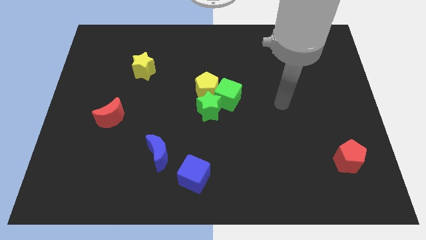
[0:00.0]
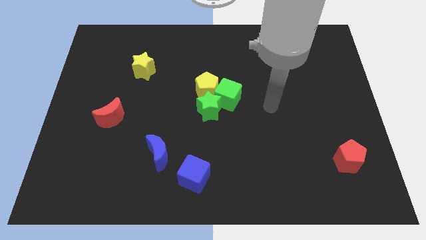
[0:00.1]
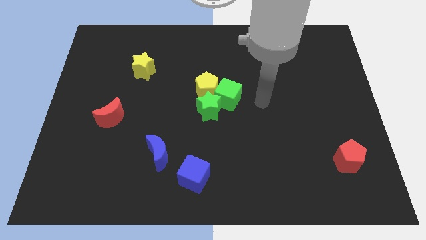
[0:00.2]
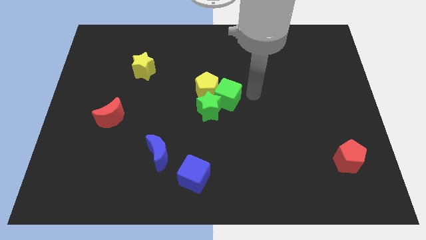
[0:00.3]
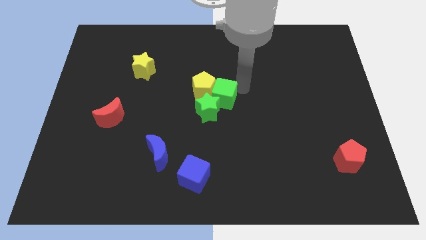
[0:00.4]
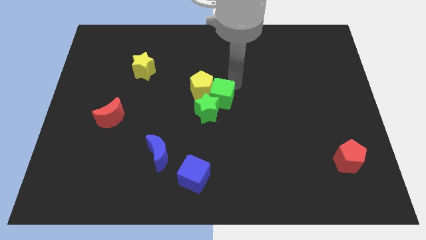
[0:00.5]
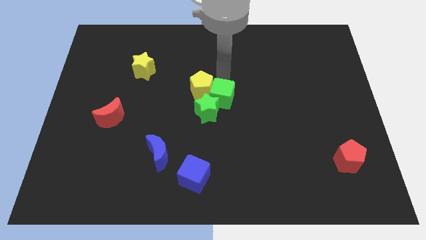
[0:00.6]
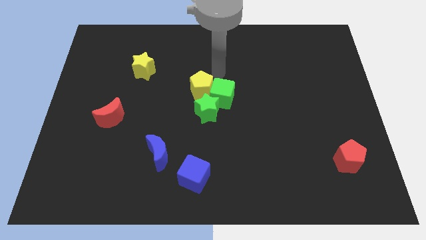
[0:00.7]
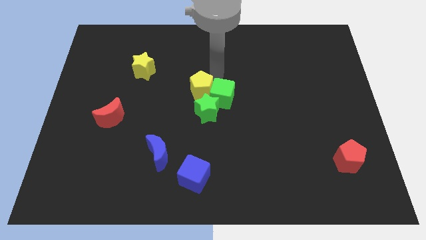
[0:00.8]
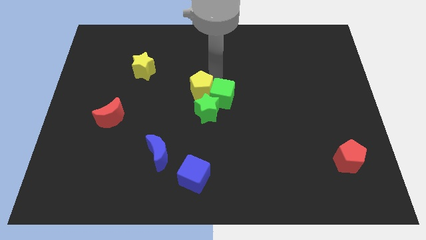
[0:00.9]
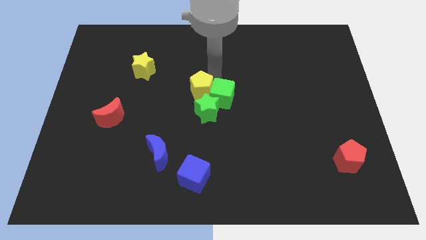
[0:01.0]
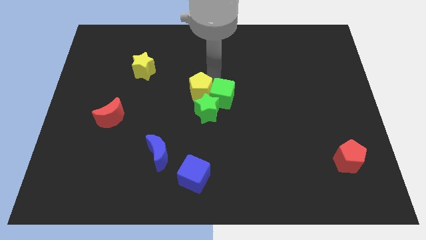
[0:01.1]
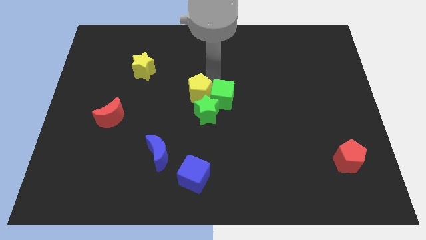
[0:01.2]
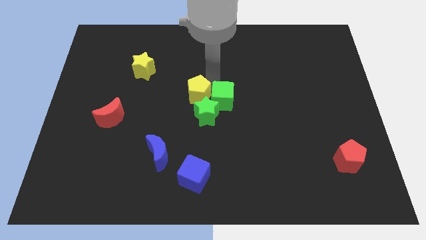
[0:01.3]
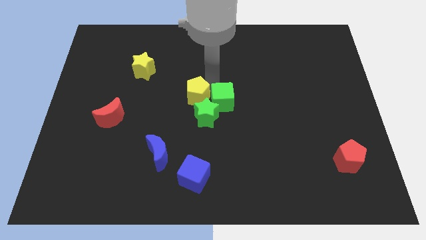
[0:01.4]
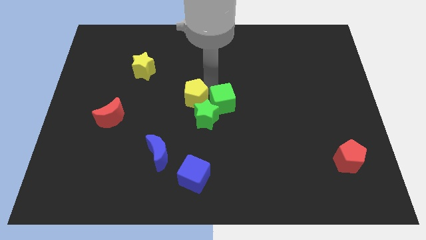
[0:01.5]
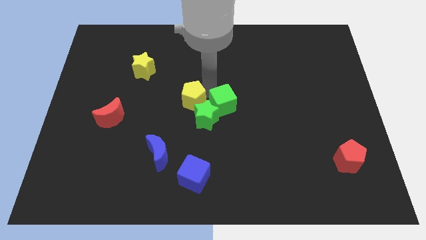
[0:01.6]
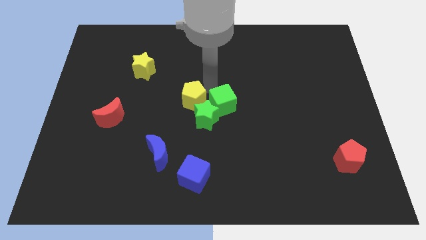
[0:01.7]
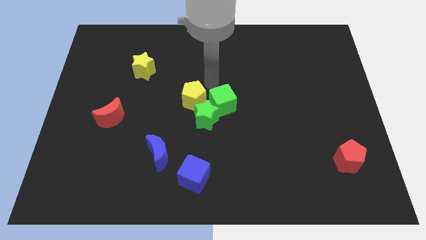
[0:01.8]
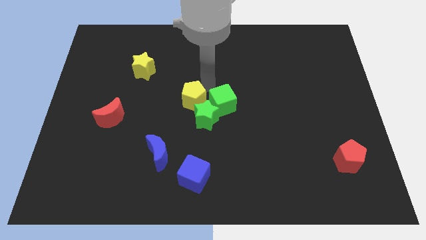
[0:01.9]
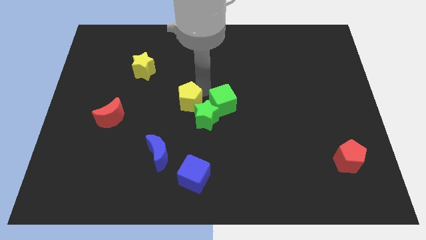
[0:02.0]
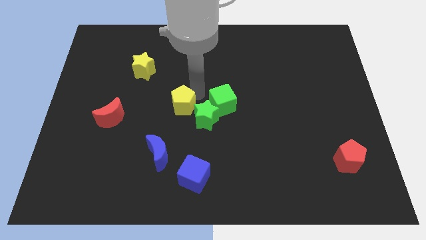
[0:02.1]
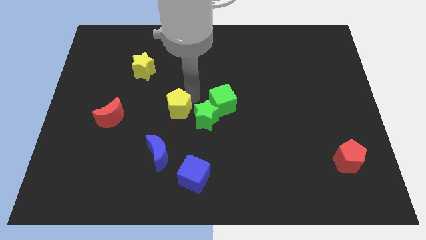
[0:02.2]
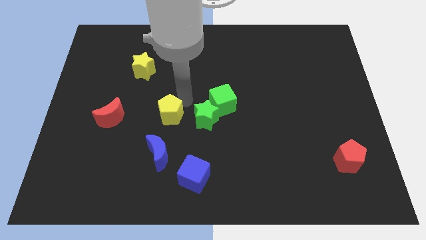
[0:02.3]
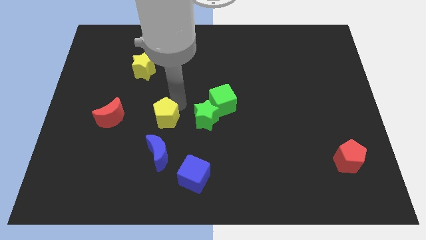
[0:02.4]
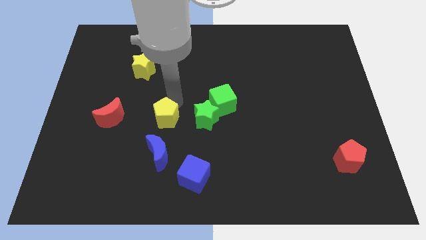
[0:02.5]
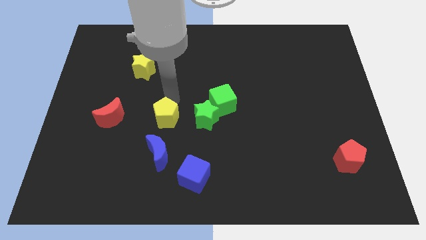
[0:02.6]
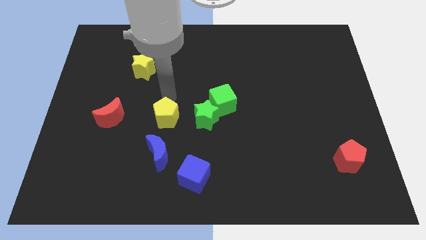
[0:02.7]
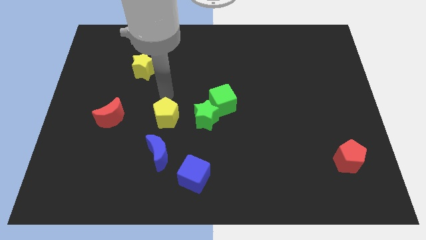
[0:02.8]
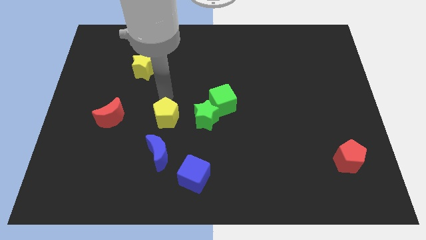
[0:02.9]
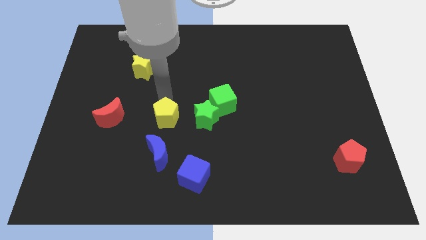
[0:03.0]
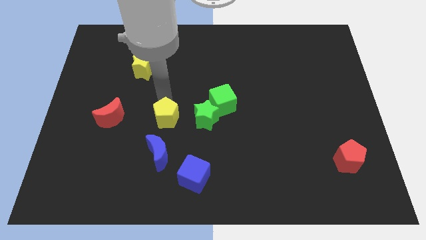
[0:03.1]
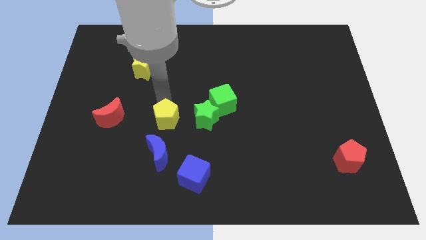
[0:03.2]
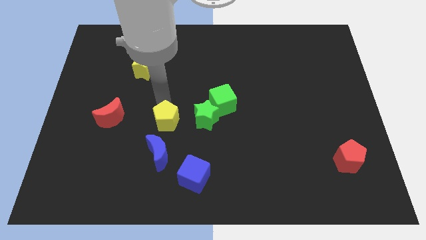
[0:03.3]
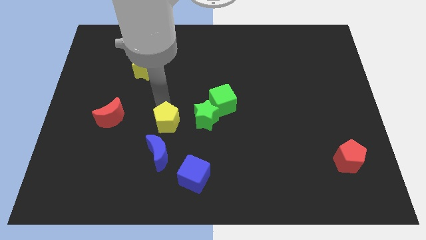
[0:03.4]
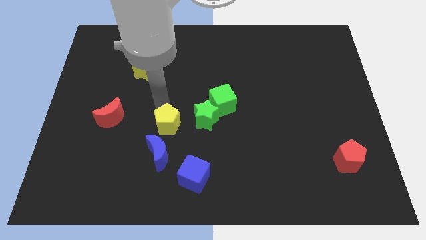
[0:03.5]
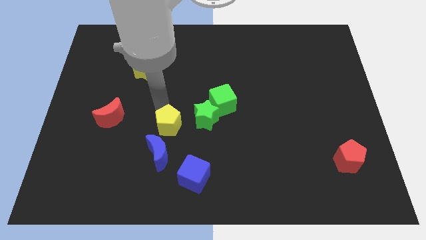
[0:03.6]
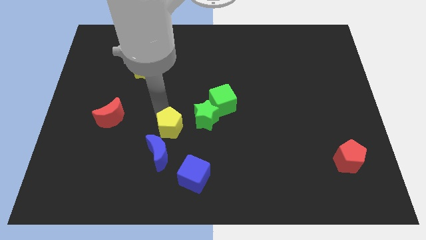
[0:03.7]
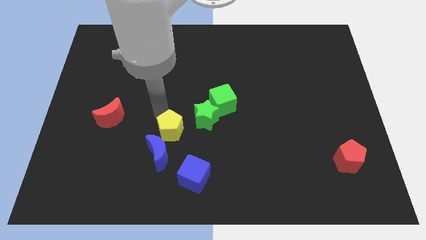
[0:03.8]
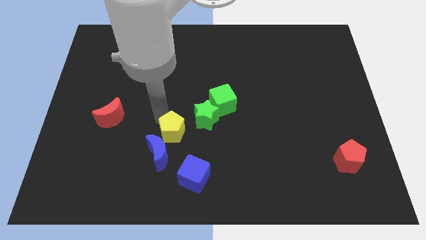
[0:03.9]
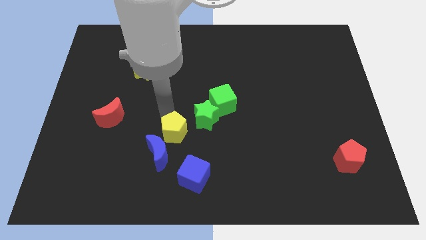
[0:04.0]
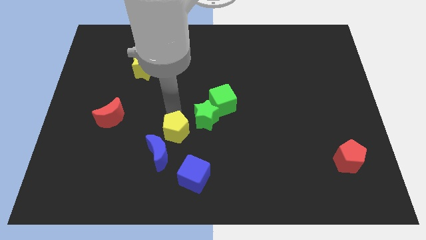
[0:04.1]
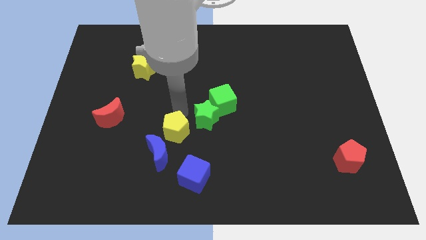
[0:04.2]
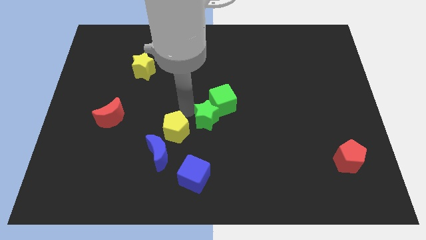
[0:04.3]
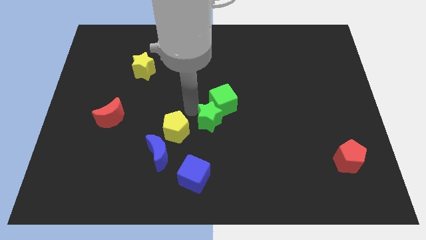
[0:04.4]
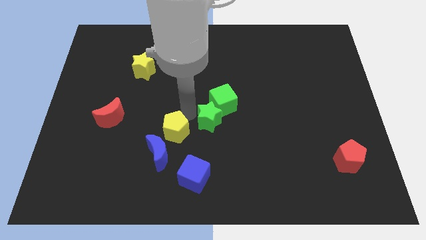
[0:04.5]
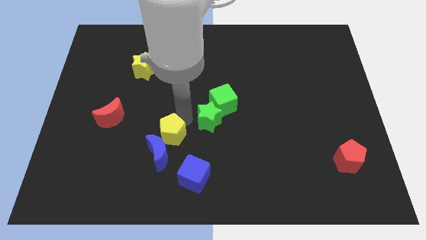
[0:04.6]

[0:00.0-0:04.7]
slide the yellow pentagon close to the blue moon

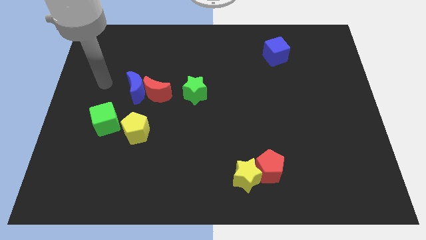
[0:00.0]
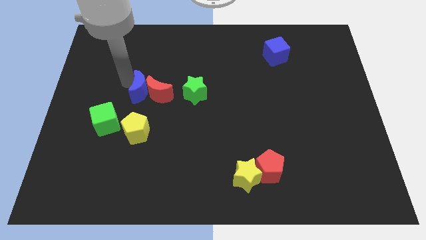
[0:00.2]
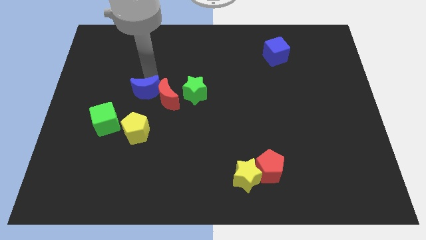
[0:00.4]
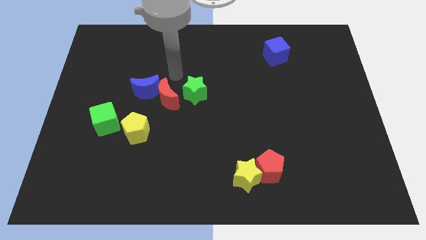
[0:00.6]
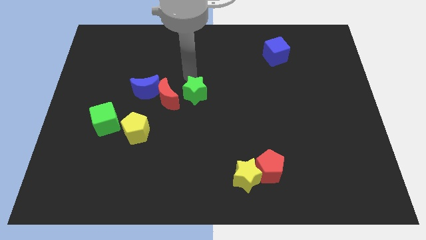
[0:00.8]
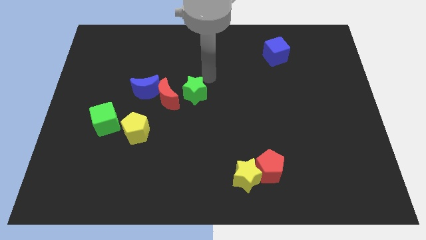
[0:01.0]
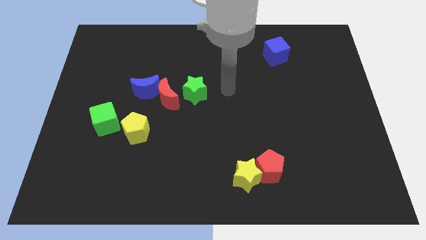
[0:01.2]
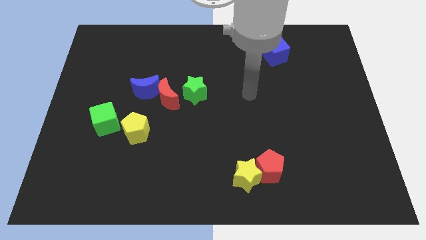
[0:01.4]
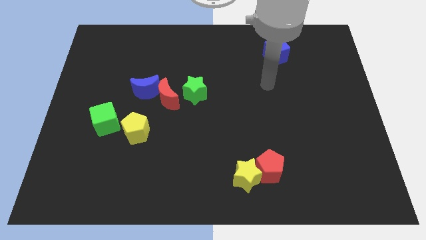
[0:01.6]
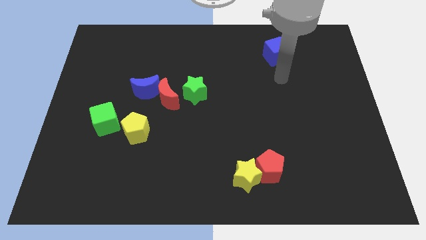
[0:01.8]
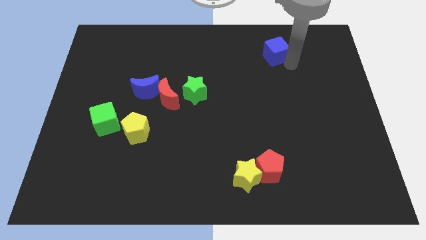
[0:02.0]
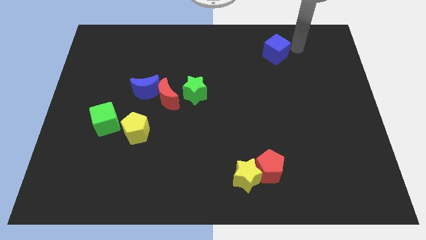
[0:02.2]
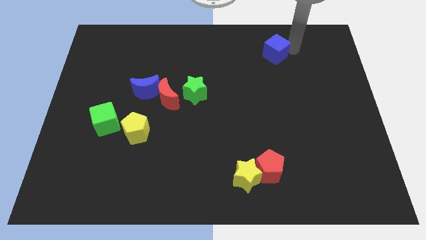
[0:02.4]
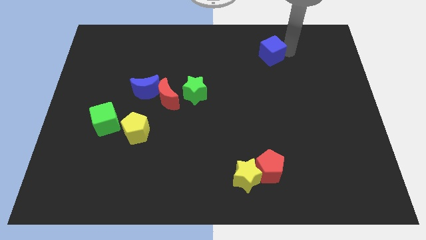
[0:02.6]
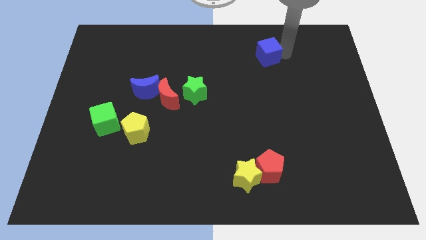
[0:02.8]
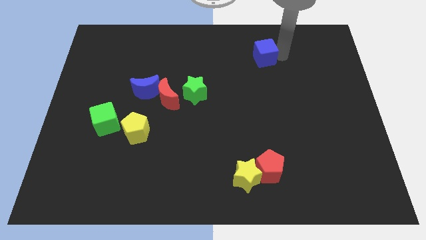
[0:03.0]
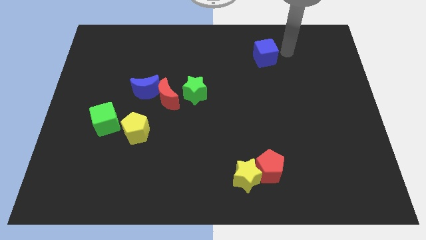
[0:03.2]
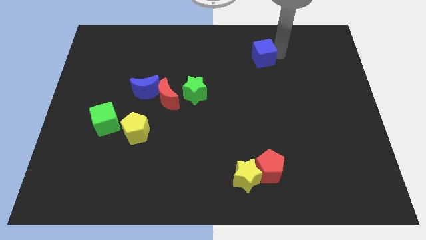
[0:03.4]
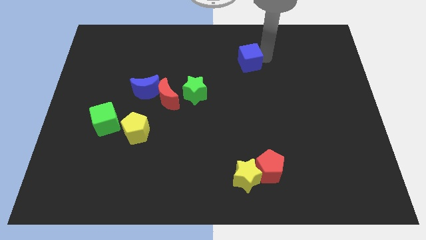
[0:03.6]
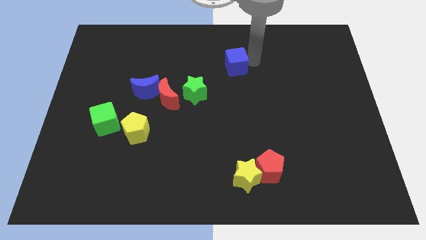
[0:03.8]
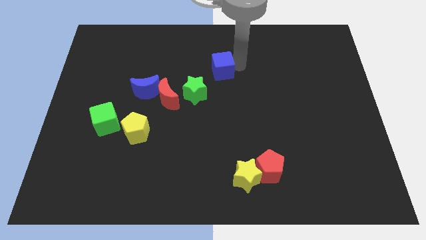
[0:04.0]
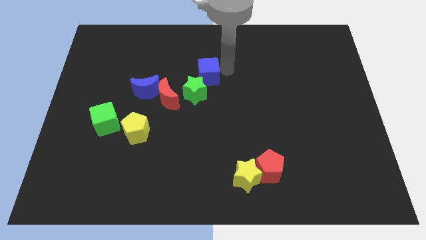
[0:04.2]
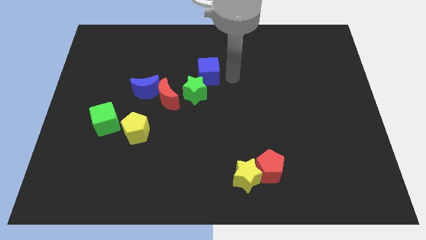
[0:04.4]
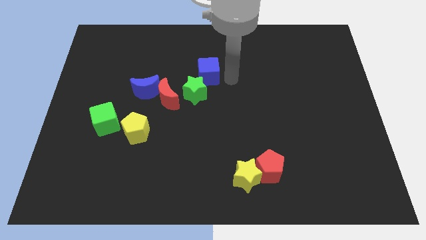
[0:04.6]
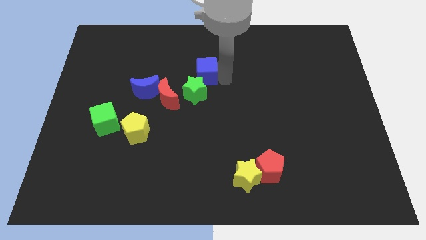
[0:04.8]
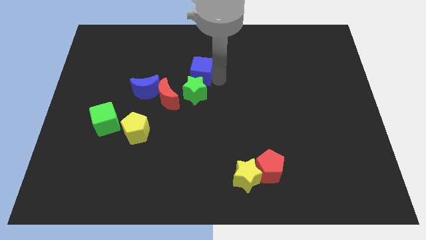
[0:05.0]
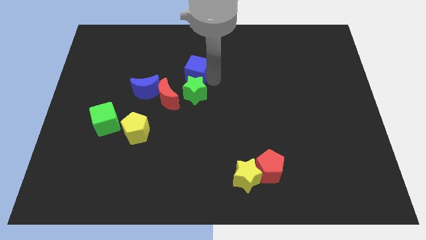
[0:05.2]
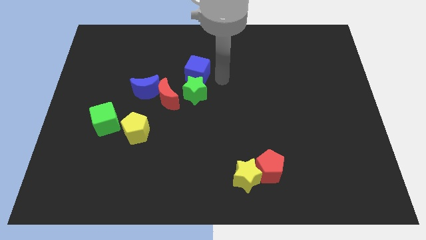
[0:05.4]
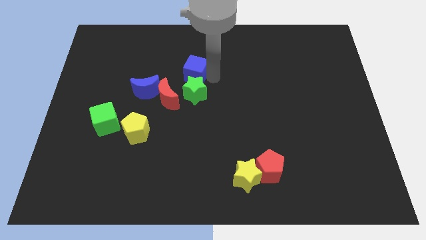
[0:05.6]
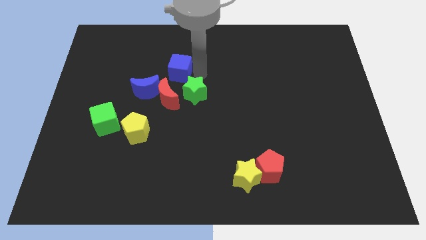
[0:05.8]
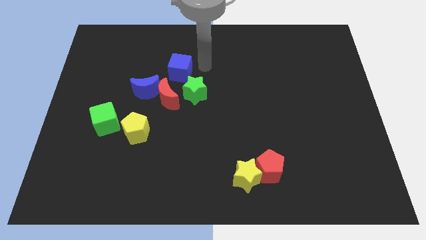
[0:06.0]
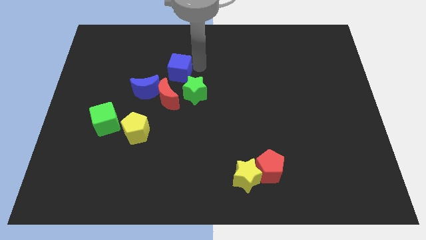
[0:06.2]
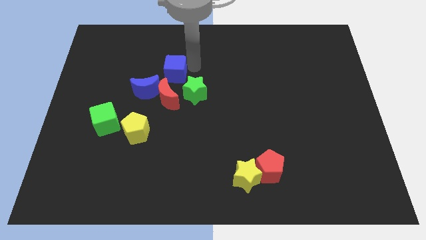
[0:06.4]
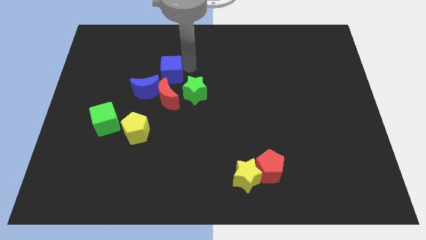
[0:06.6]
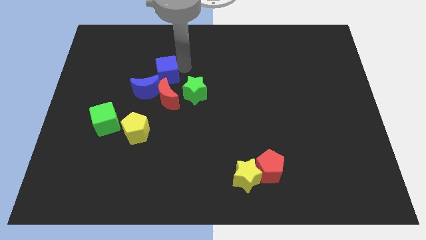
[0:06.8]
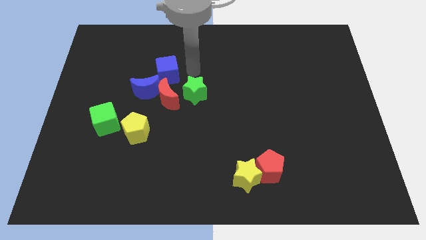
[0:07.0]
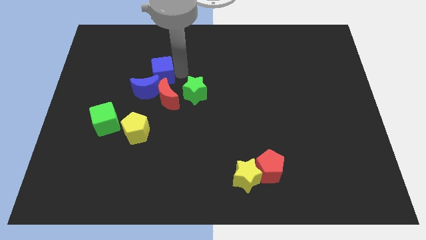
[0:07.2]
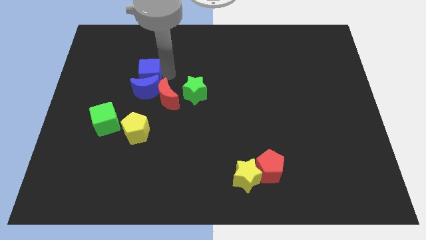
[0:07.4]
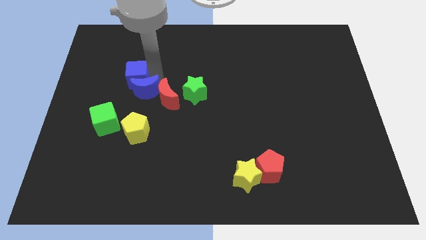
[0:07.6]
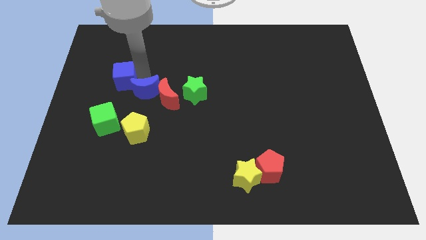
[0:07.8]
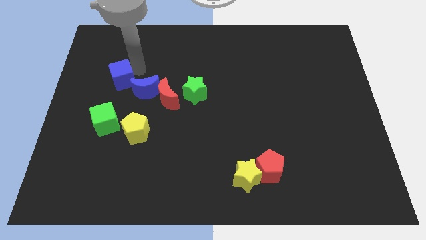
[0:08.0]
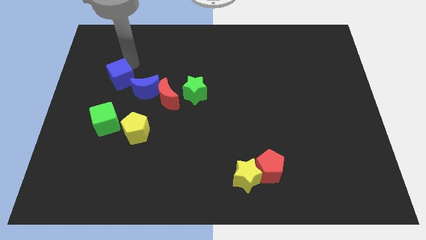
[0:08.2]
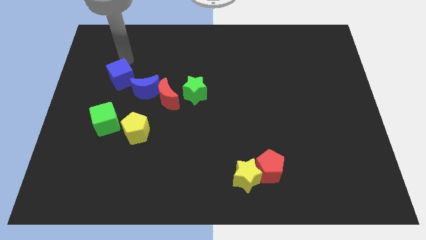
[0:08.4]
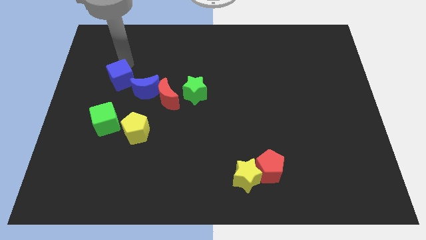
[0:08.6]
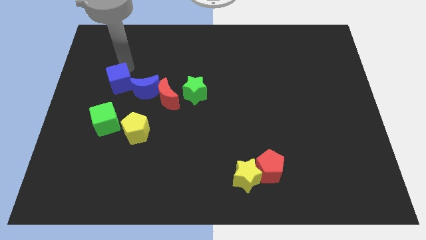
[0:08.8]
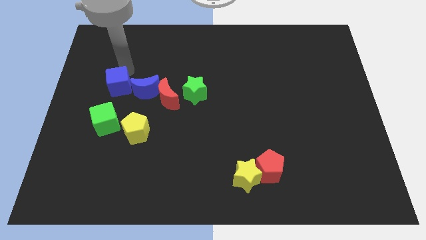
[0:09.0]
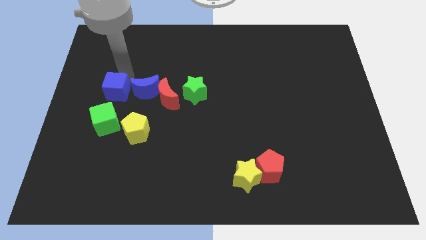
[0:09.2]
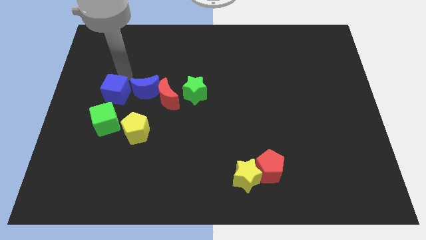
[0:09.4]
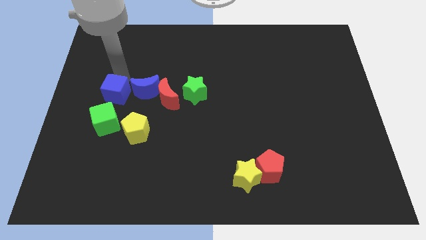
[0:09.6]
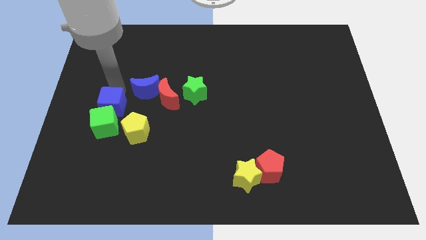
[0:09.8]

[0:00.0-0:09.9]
push the blue cube next to the green cube
